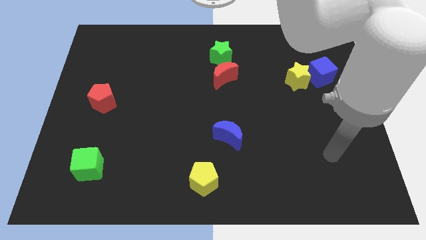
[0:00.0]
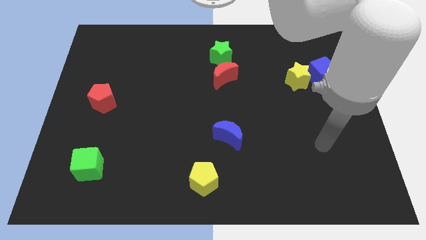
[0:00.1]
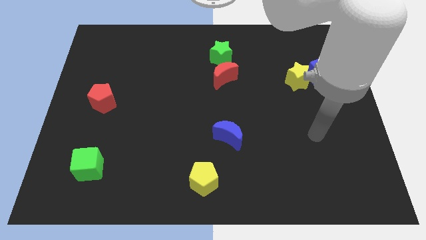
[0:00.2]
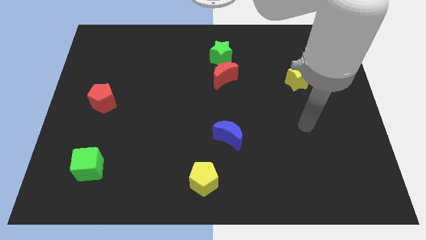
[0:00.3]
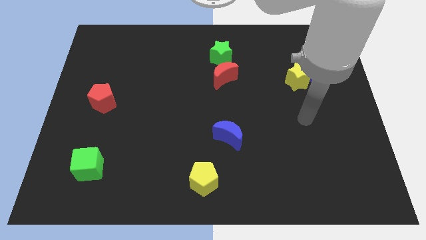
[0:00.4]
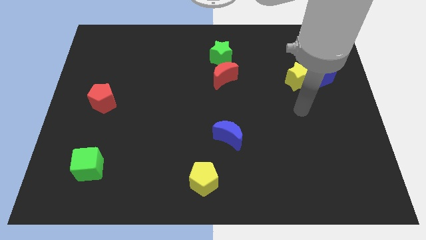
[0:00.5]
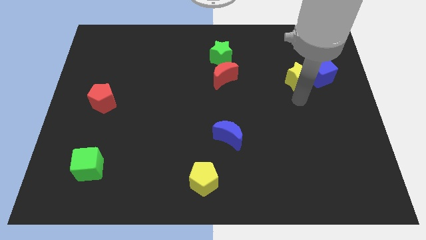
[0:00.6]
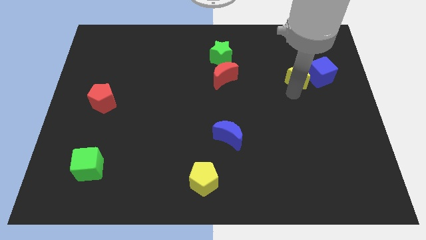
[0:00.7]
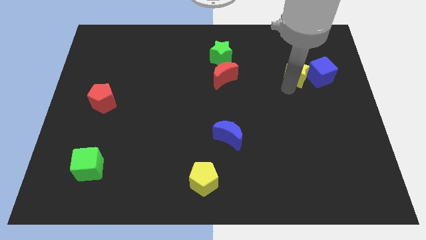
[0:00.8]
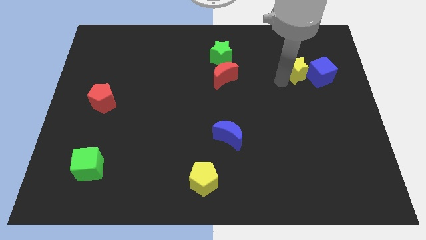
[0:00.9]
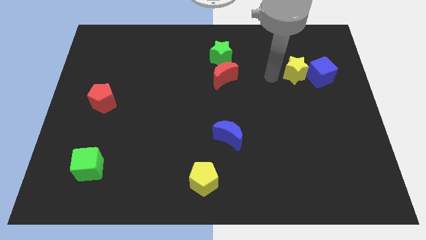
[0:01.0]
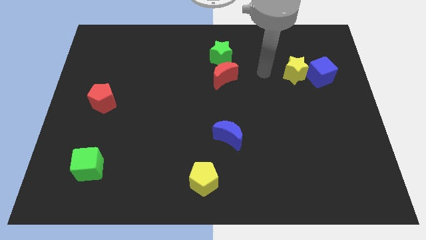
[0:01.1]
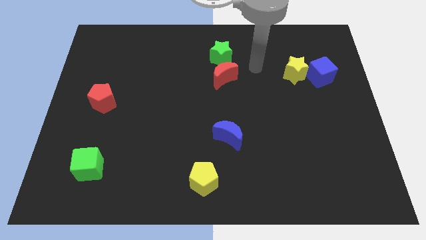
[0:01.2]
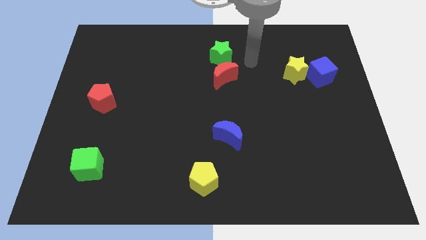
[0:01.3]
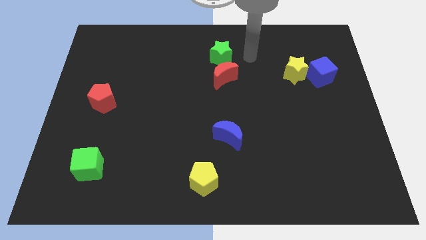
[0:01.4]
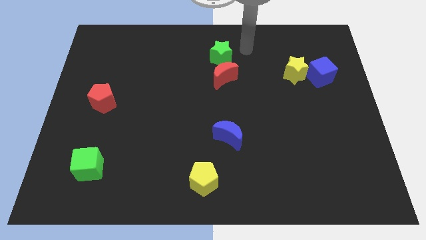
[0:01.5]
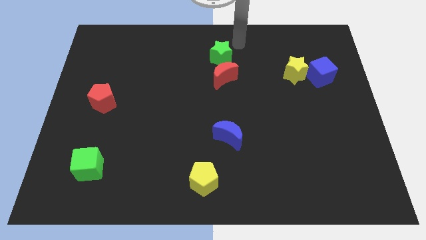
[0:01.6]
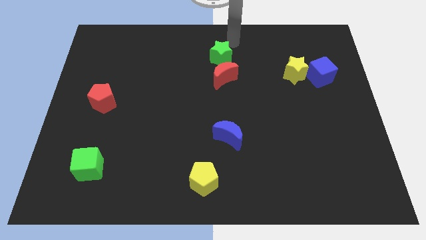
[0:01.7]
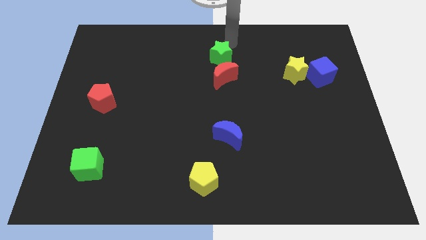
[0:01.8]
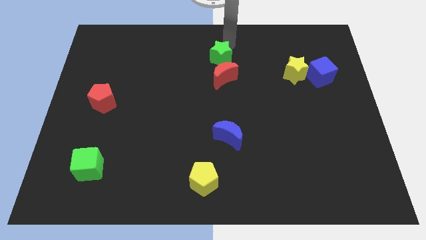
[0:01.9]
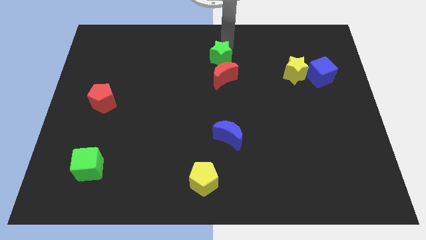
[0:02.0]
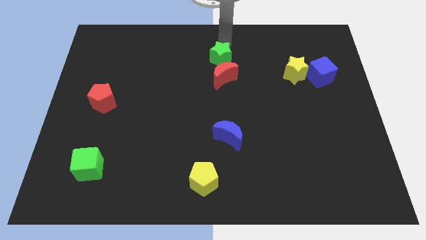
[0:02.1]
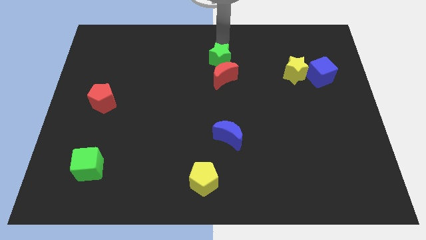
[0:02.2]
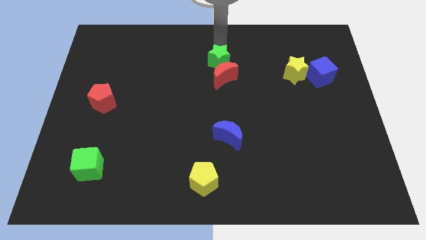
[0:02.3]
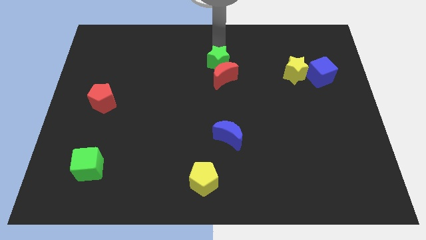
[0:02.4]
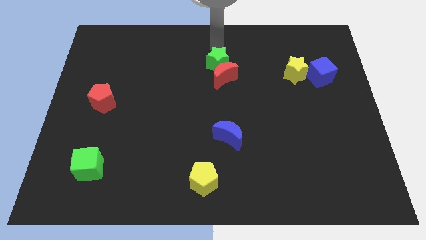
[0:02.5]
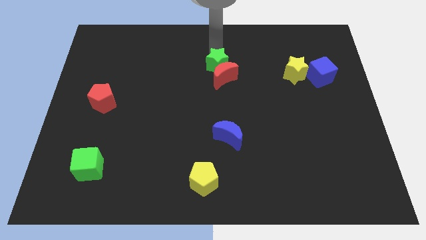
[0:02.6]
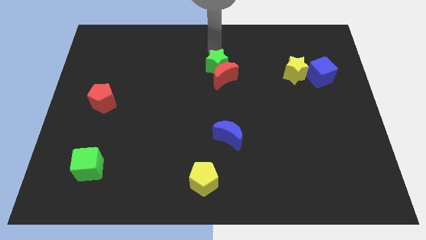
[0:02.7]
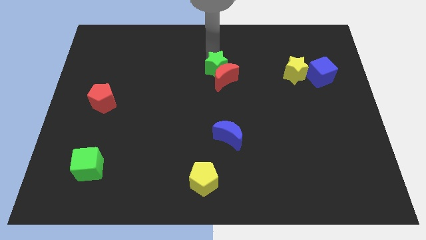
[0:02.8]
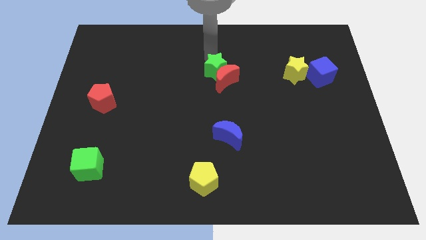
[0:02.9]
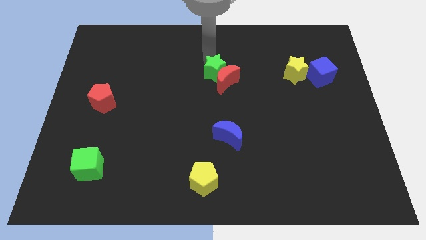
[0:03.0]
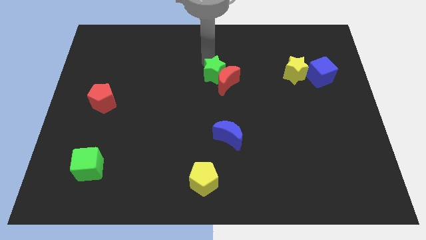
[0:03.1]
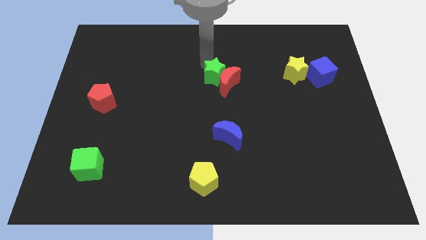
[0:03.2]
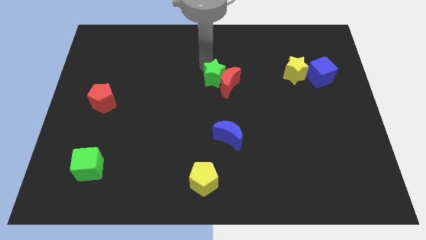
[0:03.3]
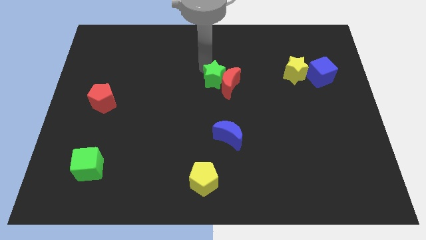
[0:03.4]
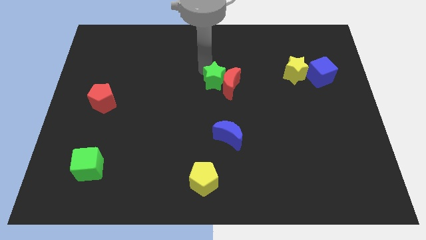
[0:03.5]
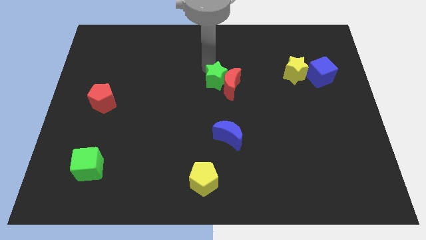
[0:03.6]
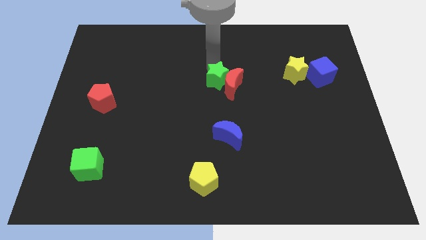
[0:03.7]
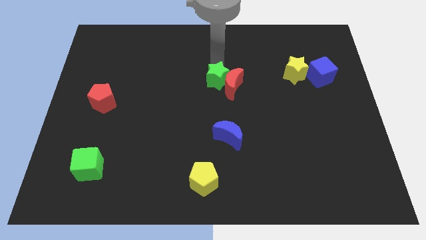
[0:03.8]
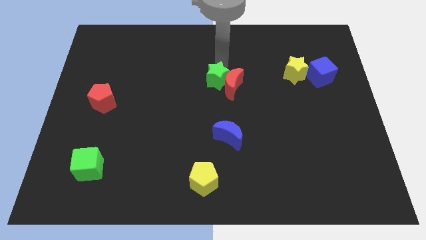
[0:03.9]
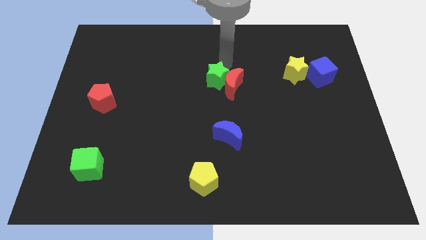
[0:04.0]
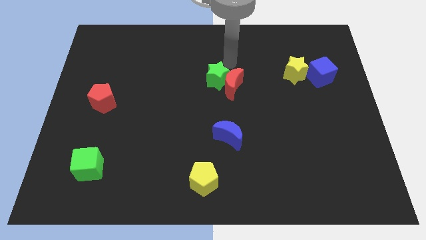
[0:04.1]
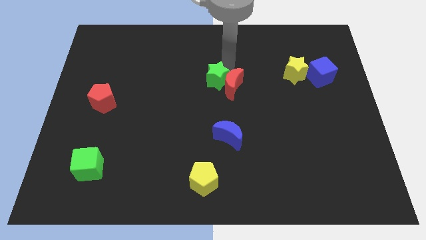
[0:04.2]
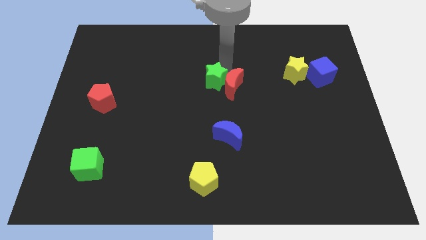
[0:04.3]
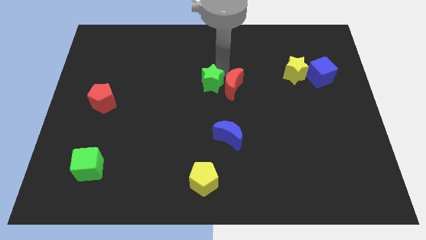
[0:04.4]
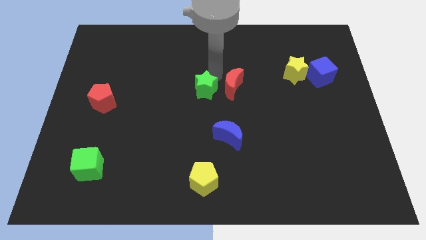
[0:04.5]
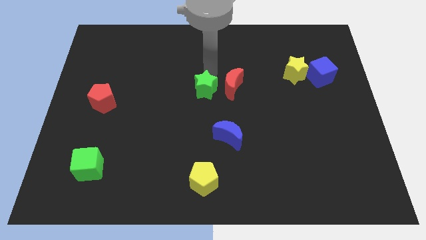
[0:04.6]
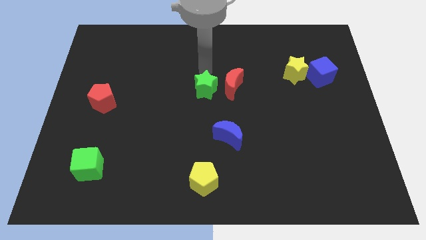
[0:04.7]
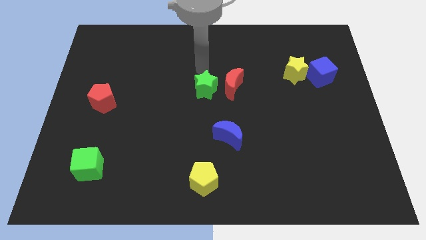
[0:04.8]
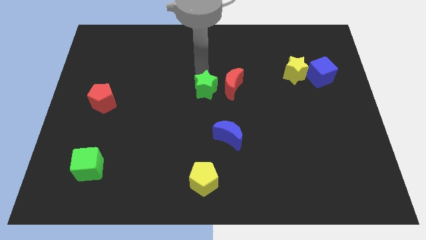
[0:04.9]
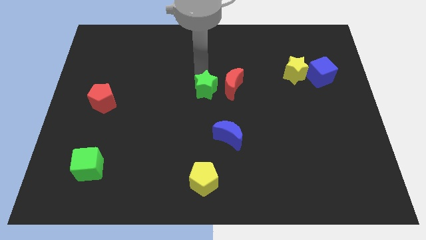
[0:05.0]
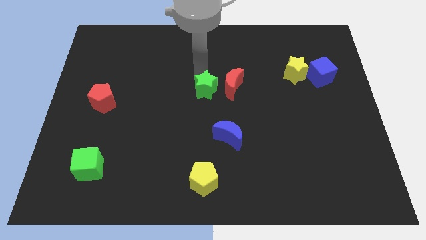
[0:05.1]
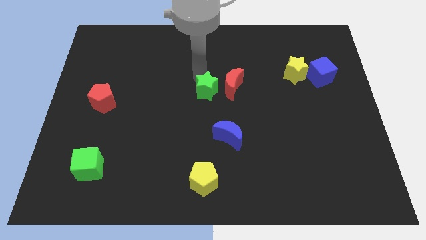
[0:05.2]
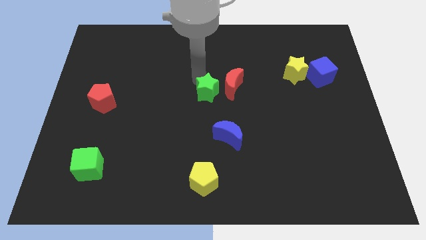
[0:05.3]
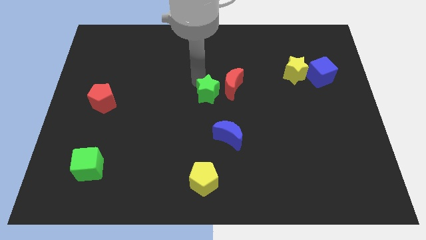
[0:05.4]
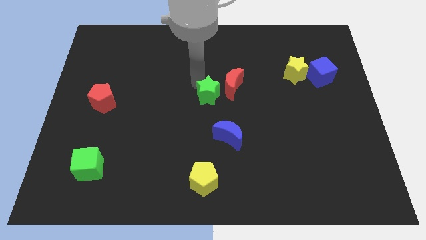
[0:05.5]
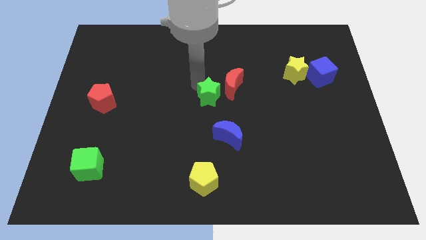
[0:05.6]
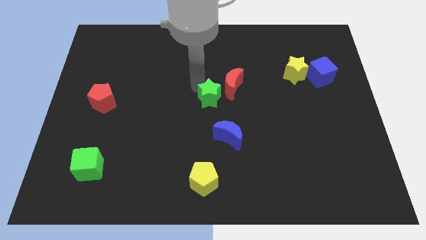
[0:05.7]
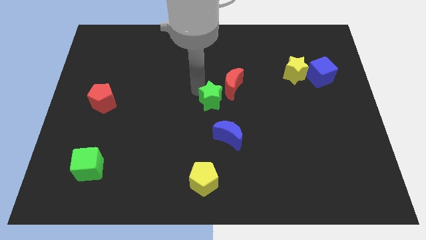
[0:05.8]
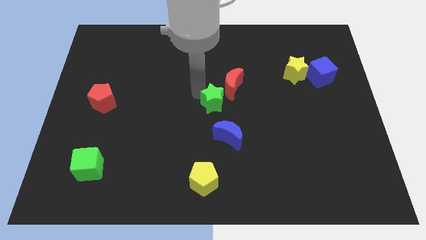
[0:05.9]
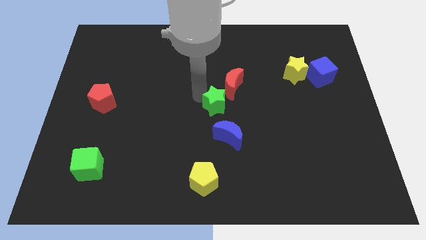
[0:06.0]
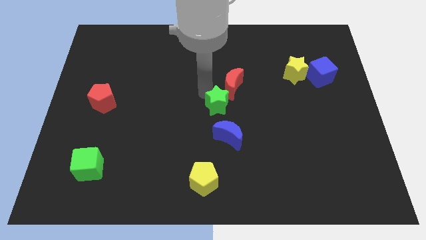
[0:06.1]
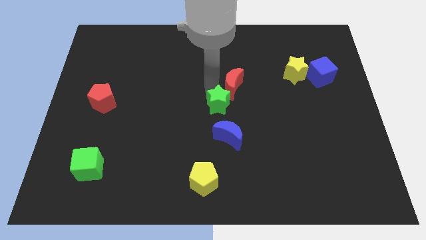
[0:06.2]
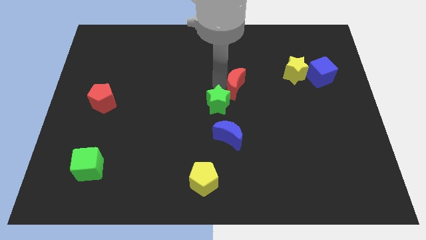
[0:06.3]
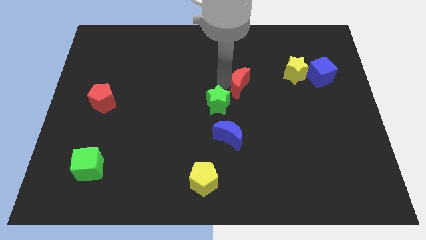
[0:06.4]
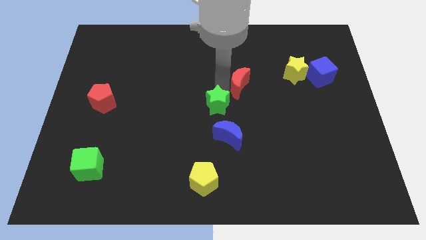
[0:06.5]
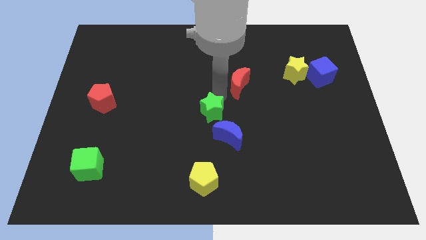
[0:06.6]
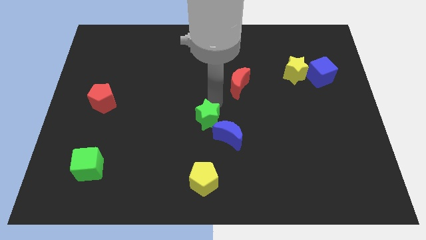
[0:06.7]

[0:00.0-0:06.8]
slide the green star to the top side of the yellow pentagon

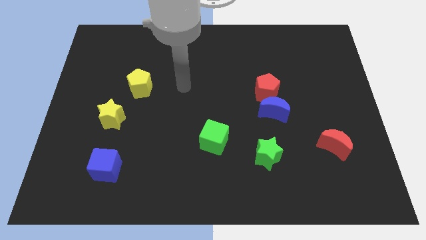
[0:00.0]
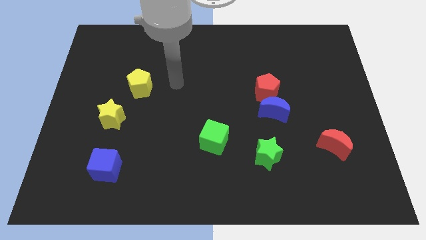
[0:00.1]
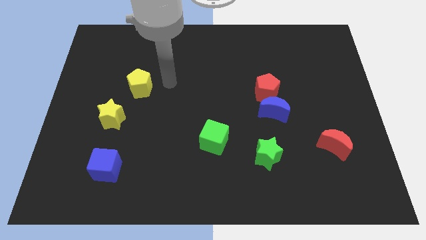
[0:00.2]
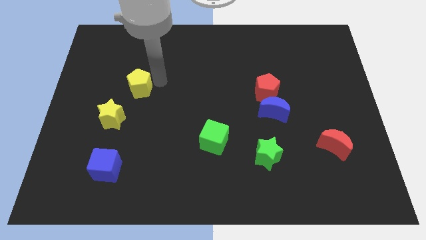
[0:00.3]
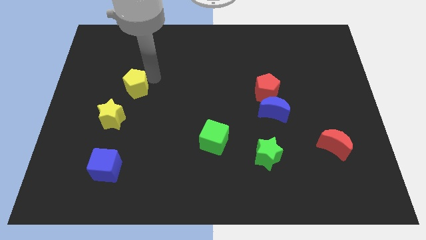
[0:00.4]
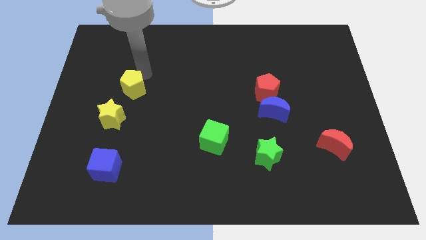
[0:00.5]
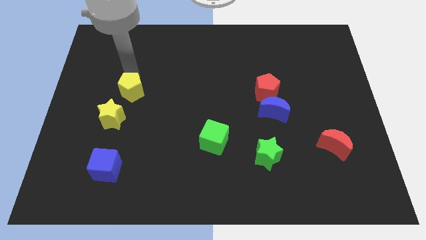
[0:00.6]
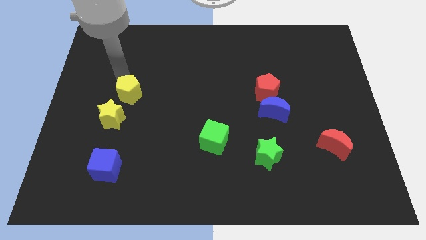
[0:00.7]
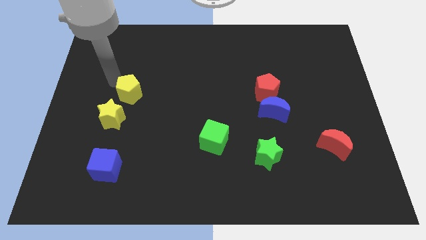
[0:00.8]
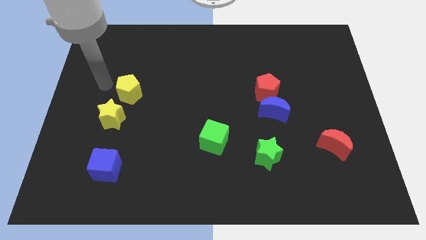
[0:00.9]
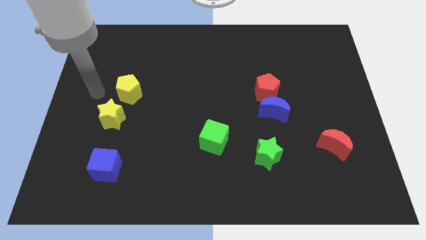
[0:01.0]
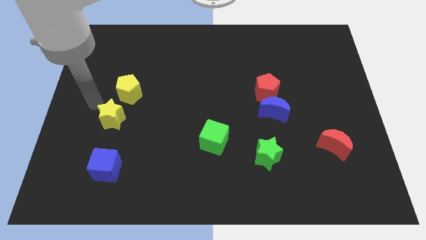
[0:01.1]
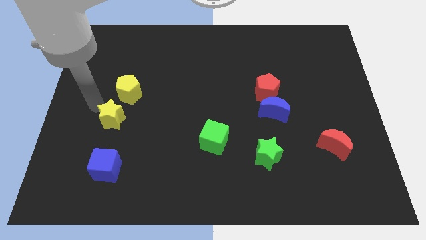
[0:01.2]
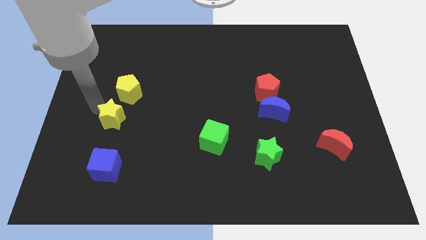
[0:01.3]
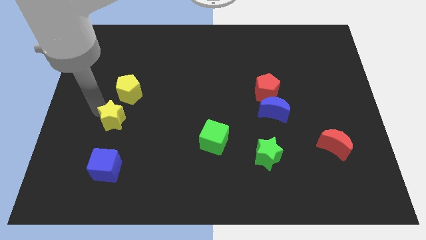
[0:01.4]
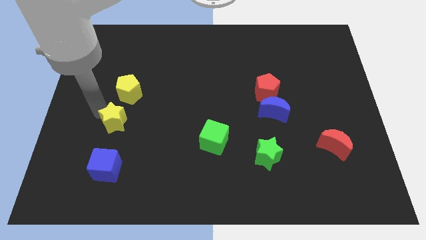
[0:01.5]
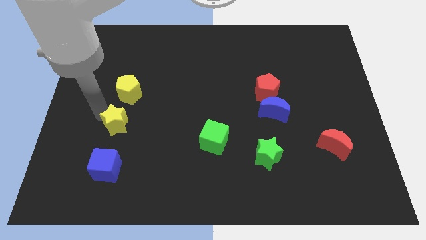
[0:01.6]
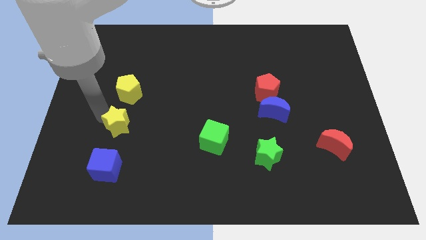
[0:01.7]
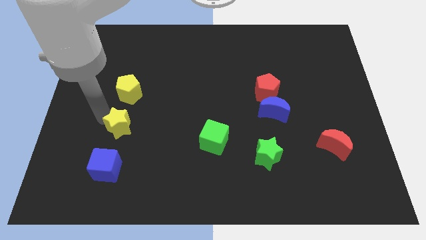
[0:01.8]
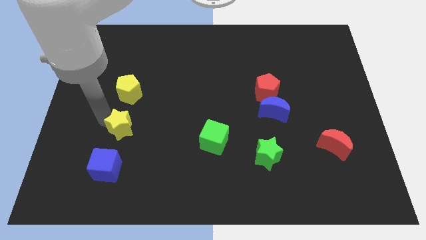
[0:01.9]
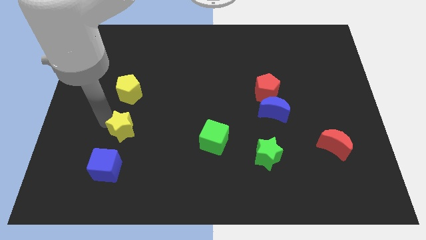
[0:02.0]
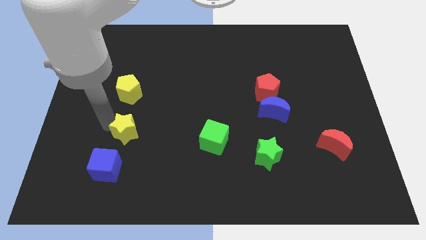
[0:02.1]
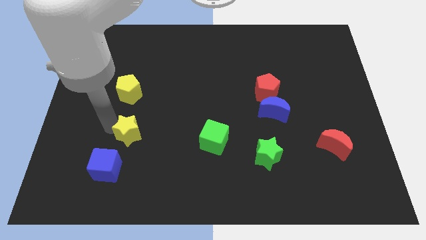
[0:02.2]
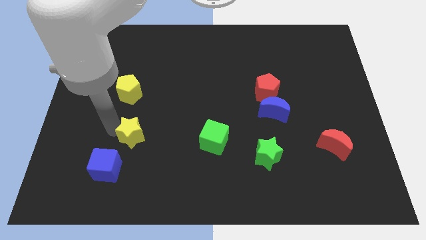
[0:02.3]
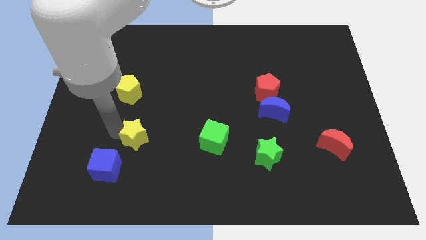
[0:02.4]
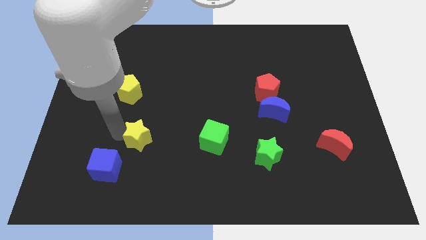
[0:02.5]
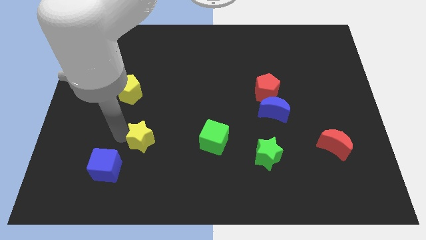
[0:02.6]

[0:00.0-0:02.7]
put the yellow star to the left side of the green cube
